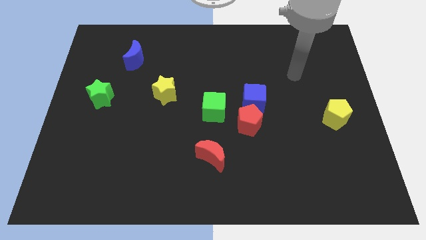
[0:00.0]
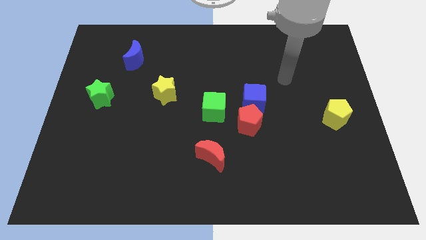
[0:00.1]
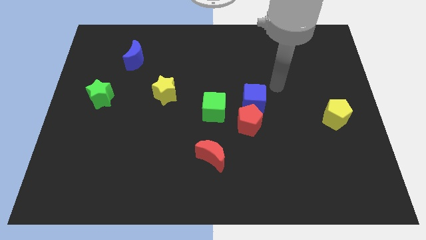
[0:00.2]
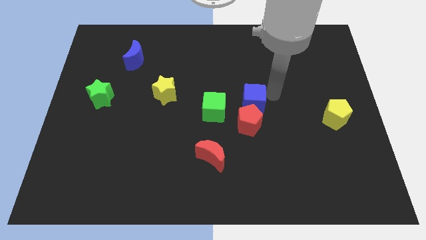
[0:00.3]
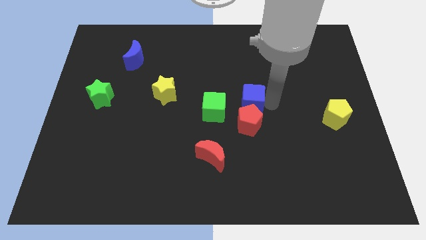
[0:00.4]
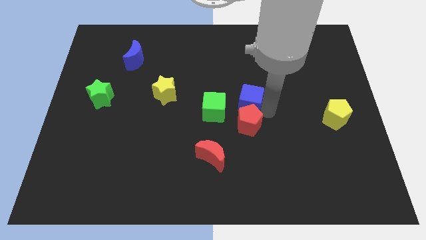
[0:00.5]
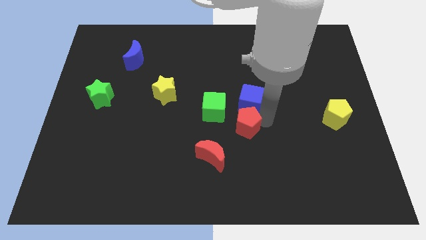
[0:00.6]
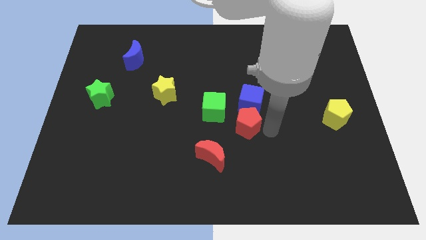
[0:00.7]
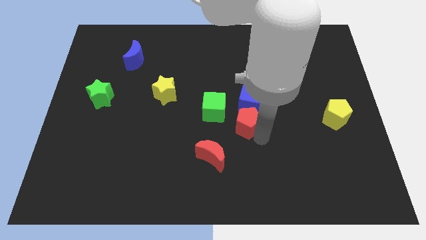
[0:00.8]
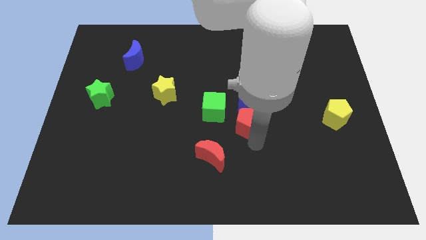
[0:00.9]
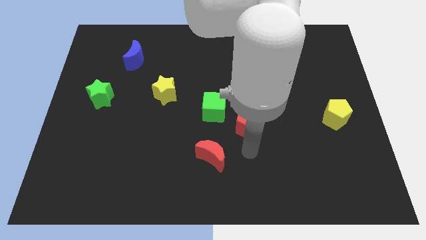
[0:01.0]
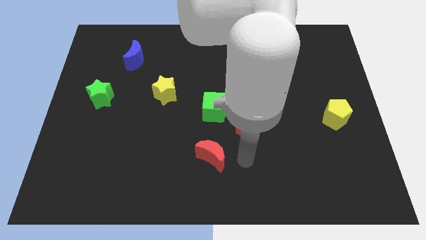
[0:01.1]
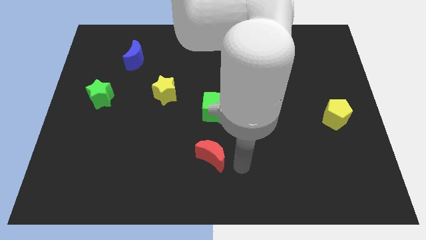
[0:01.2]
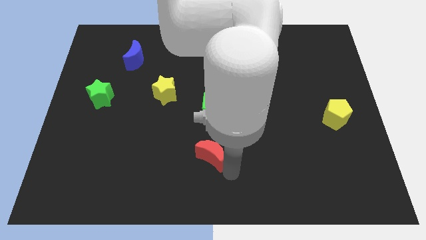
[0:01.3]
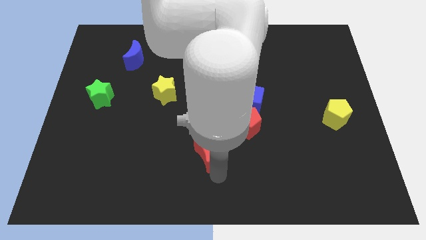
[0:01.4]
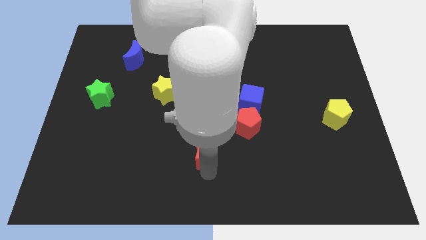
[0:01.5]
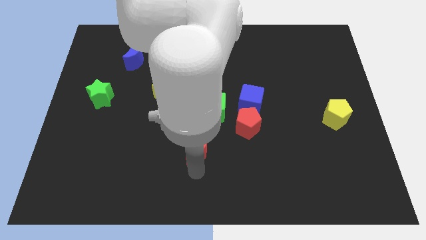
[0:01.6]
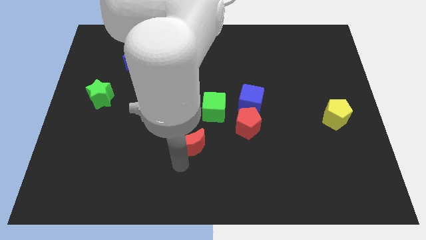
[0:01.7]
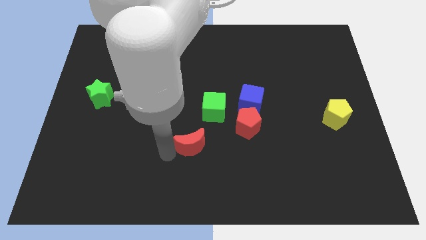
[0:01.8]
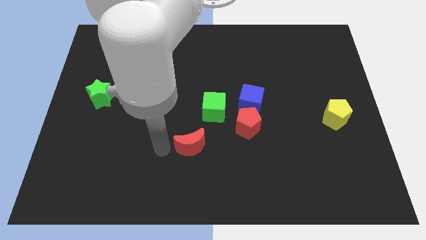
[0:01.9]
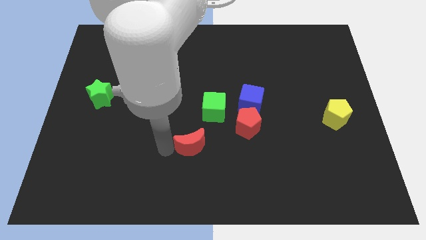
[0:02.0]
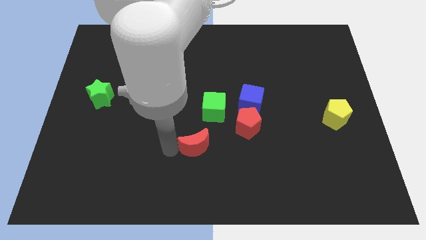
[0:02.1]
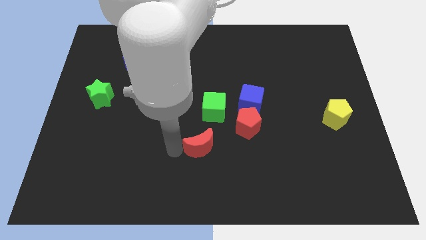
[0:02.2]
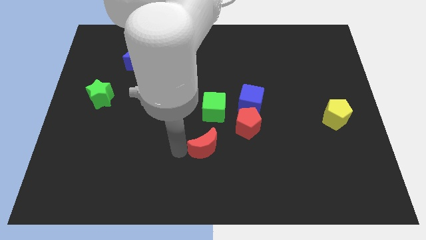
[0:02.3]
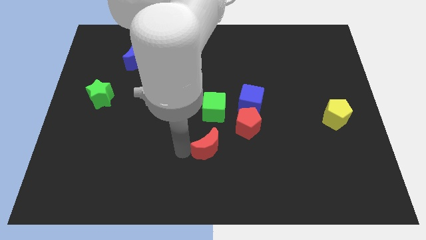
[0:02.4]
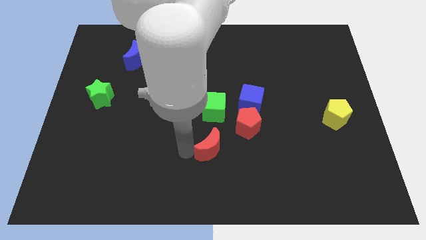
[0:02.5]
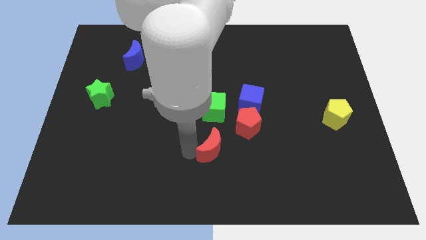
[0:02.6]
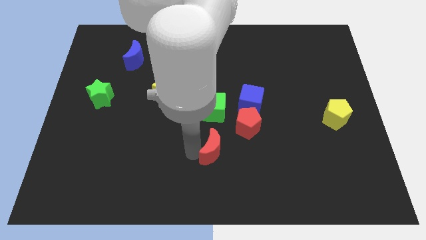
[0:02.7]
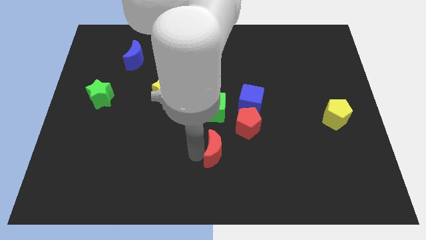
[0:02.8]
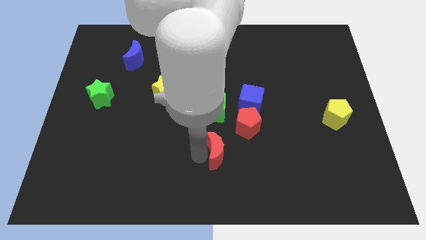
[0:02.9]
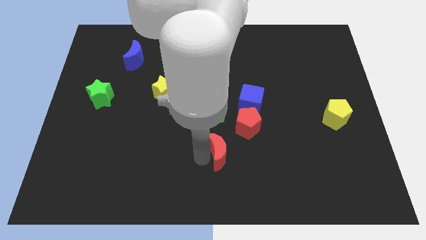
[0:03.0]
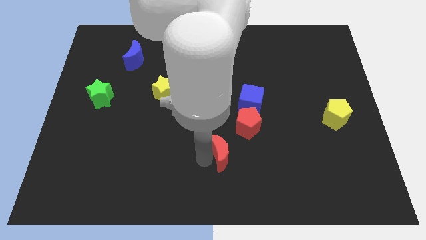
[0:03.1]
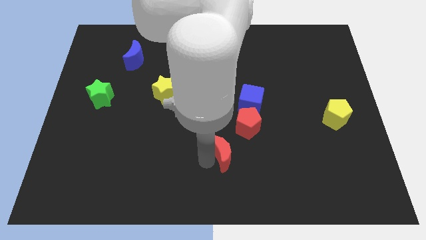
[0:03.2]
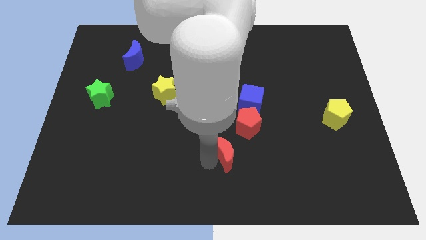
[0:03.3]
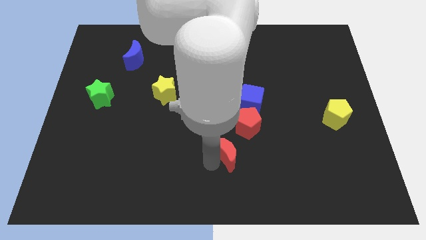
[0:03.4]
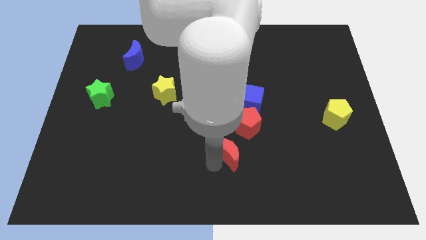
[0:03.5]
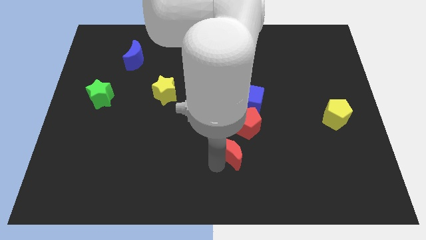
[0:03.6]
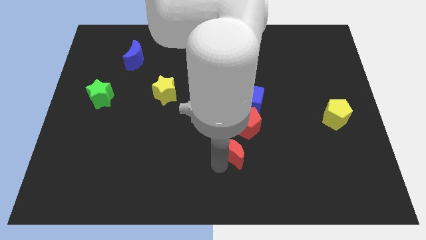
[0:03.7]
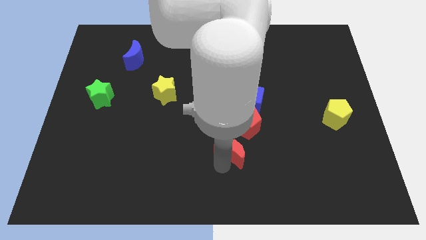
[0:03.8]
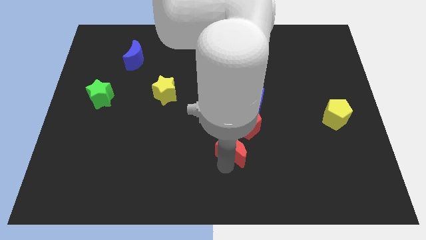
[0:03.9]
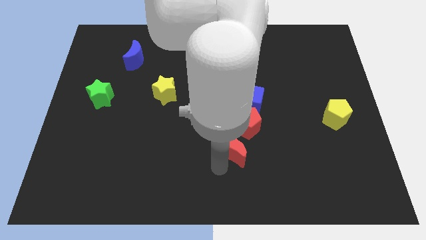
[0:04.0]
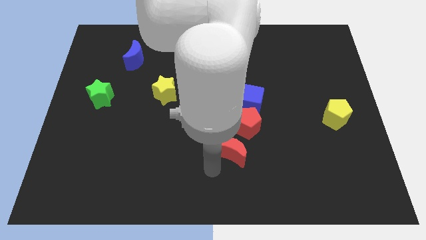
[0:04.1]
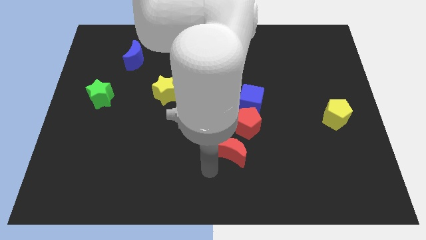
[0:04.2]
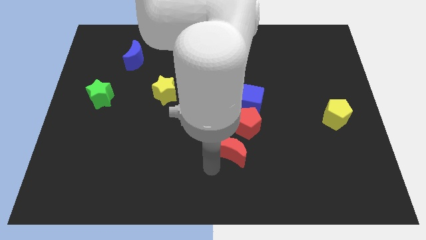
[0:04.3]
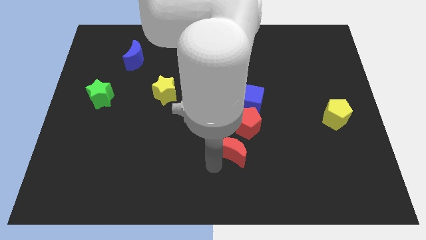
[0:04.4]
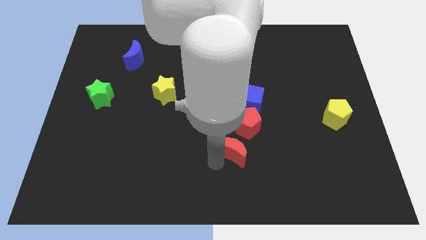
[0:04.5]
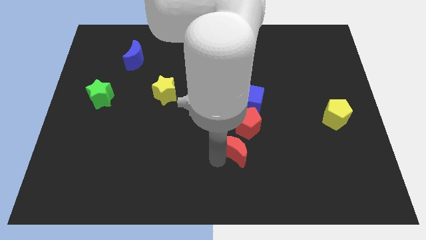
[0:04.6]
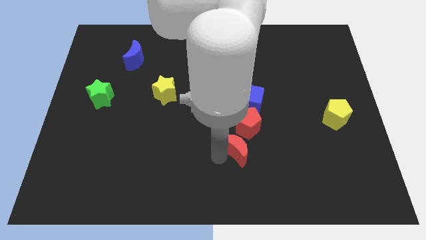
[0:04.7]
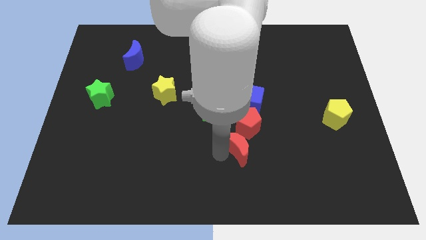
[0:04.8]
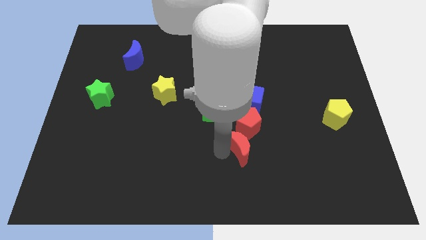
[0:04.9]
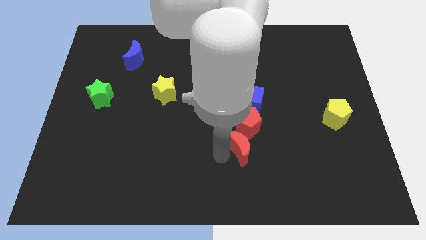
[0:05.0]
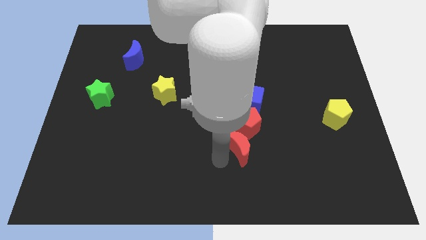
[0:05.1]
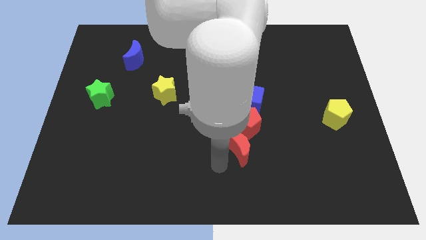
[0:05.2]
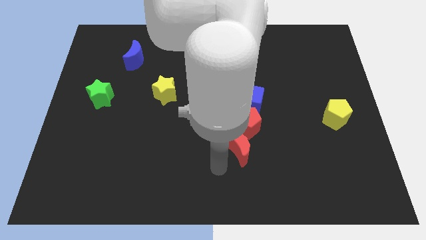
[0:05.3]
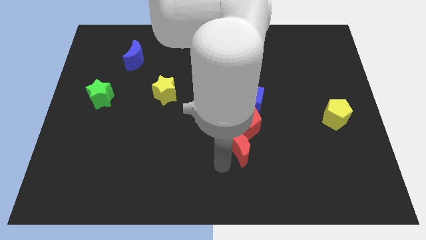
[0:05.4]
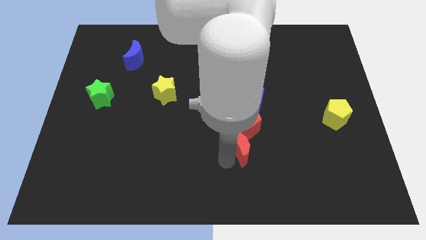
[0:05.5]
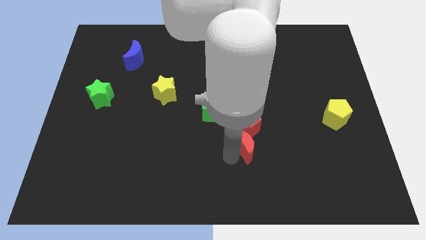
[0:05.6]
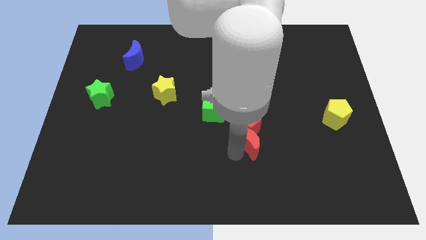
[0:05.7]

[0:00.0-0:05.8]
slightly move the red moon diagonally up and to the right

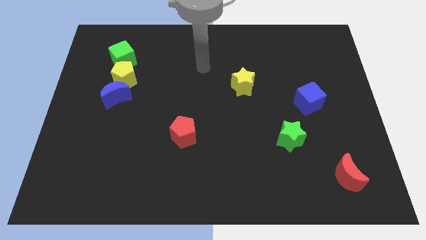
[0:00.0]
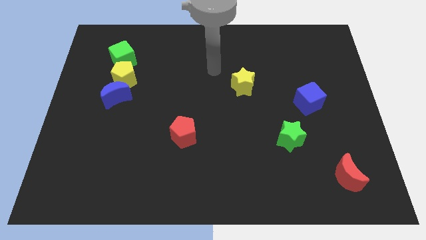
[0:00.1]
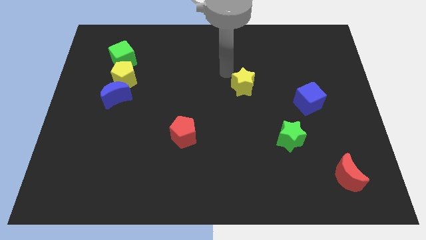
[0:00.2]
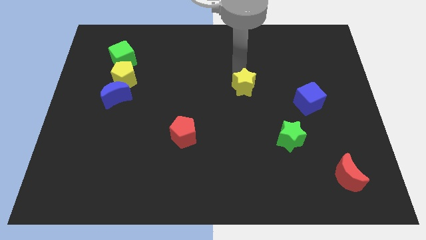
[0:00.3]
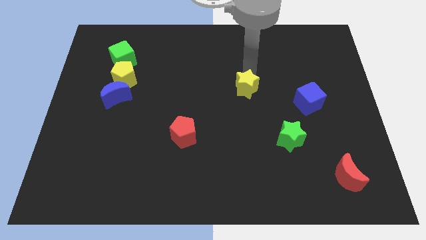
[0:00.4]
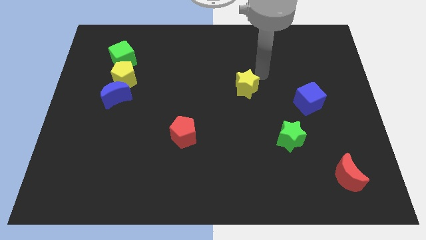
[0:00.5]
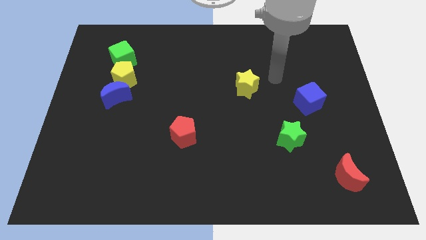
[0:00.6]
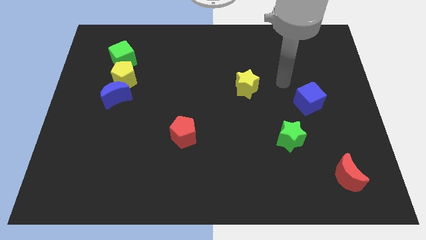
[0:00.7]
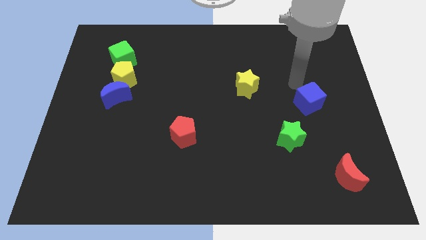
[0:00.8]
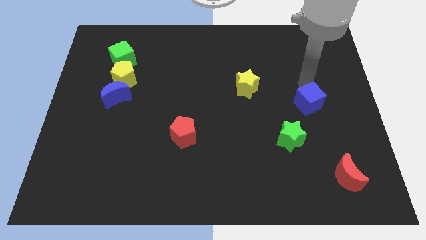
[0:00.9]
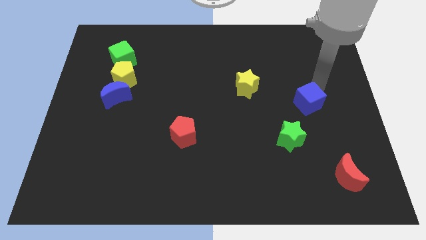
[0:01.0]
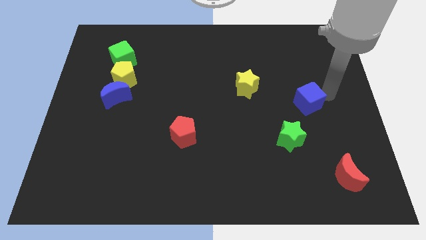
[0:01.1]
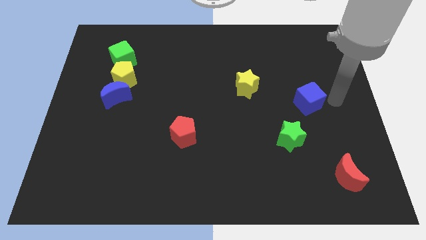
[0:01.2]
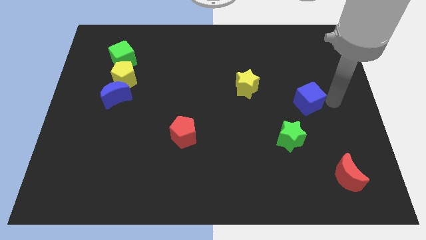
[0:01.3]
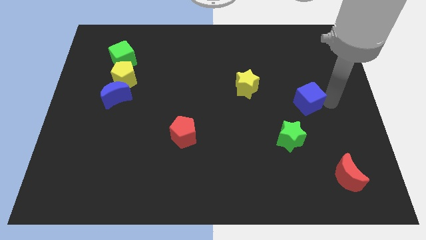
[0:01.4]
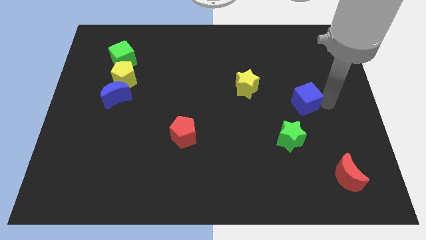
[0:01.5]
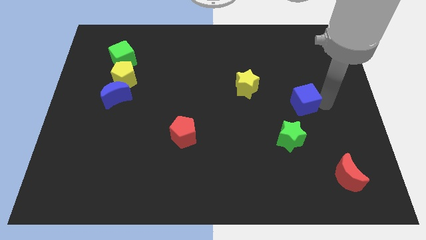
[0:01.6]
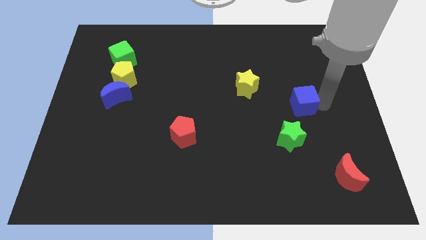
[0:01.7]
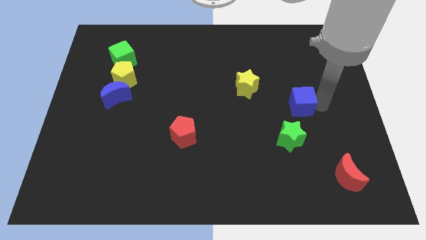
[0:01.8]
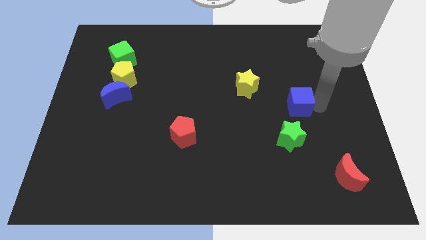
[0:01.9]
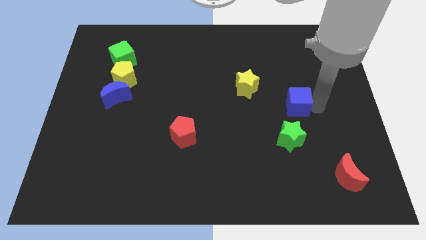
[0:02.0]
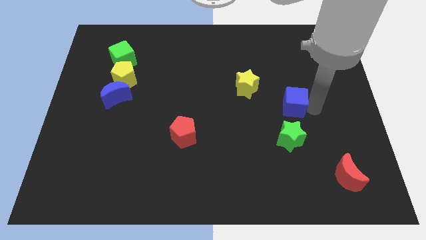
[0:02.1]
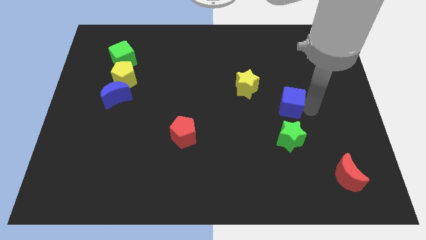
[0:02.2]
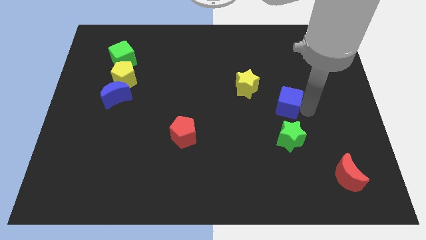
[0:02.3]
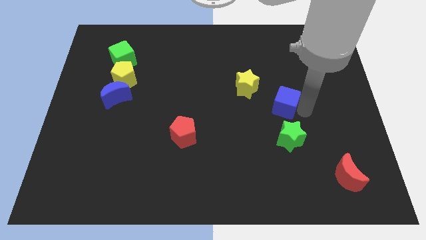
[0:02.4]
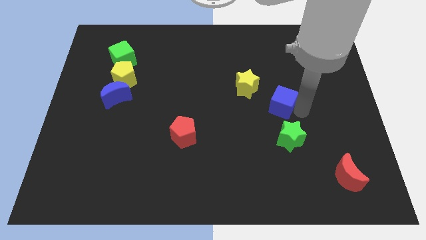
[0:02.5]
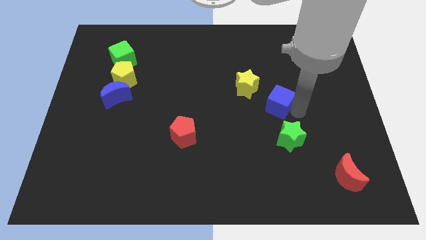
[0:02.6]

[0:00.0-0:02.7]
push the blue cube to the left slightly
